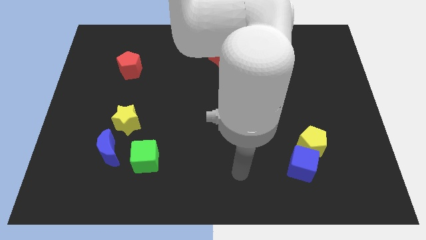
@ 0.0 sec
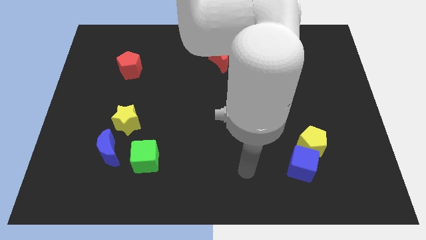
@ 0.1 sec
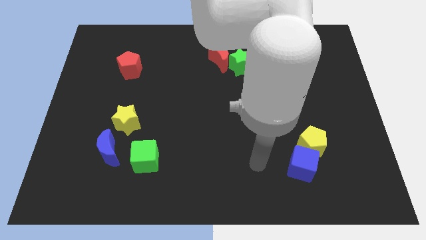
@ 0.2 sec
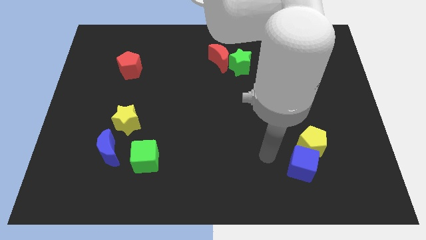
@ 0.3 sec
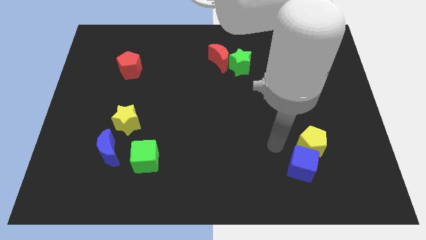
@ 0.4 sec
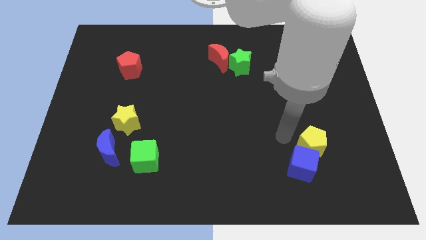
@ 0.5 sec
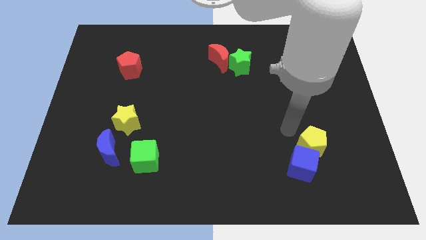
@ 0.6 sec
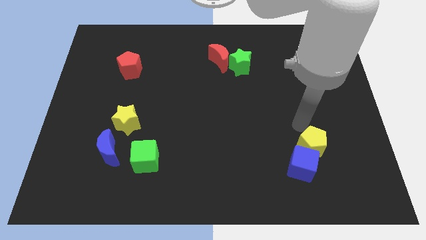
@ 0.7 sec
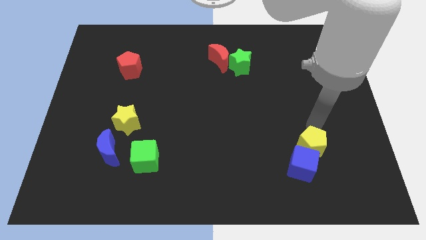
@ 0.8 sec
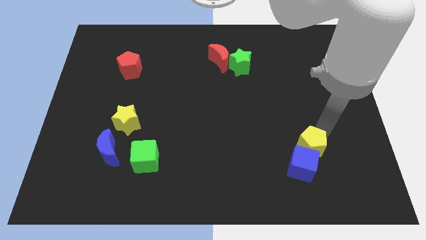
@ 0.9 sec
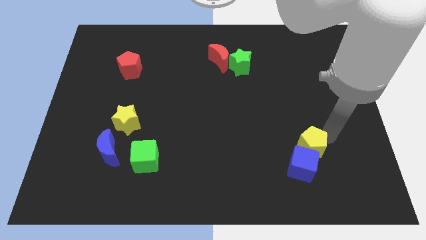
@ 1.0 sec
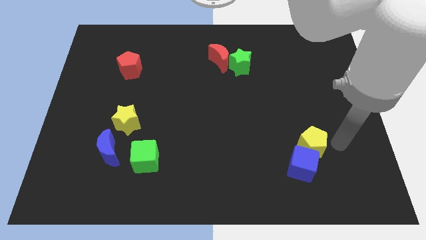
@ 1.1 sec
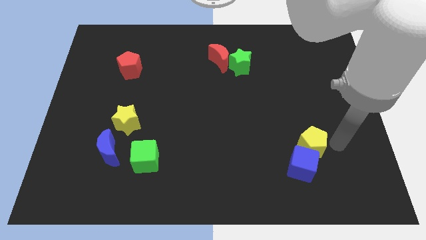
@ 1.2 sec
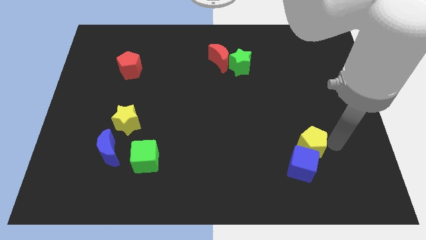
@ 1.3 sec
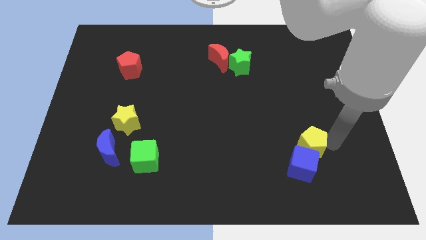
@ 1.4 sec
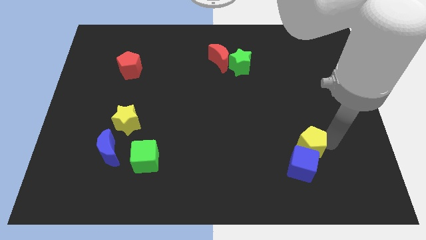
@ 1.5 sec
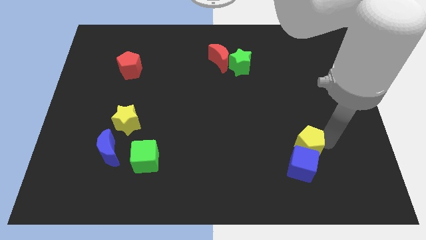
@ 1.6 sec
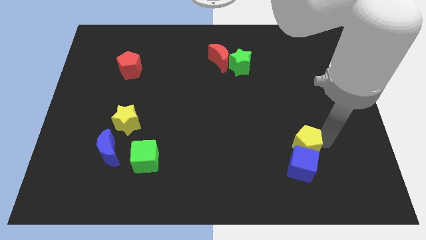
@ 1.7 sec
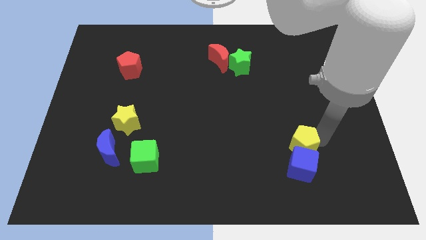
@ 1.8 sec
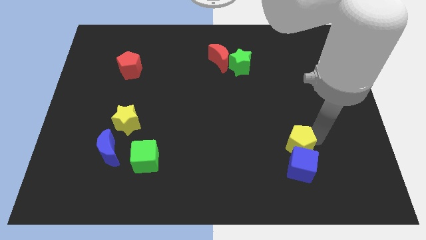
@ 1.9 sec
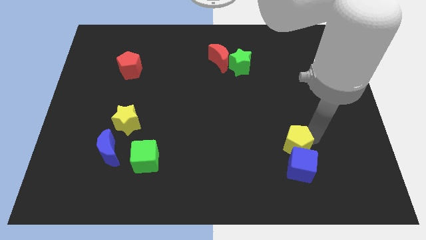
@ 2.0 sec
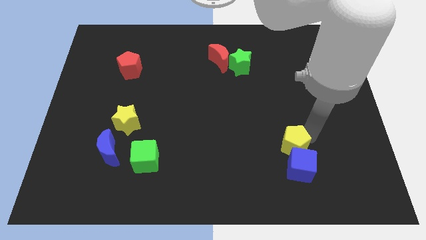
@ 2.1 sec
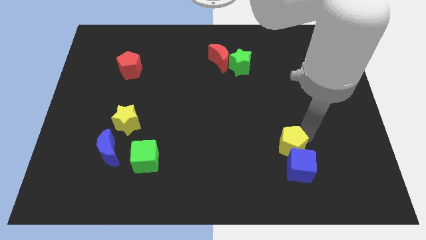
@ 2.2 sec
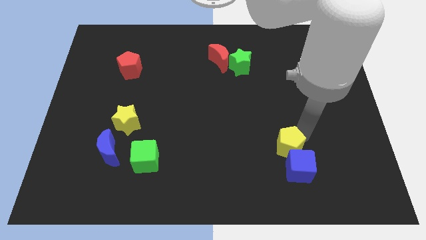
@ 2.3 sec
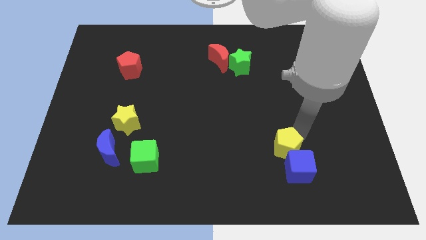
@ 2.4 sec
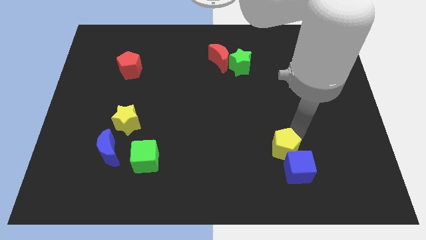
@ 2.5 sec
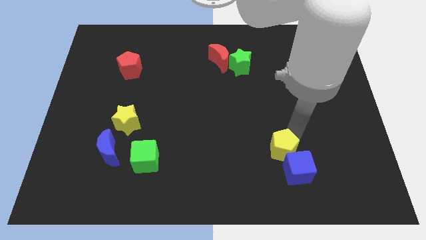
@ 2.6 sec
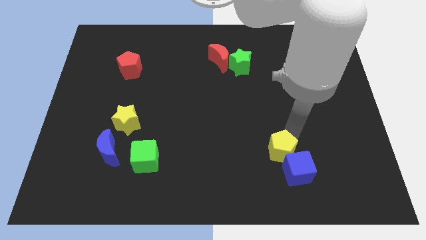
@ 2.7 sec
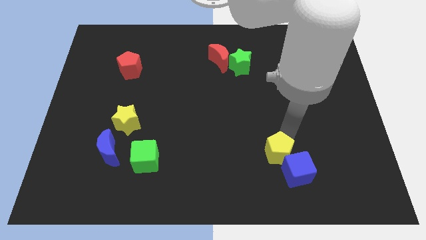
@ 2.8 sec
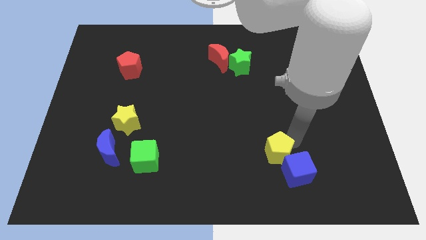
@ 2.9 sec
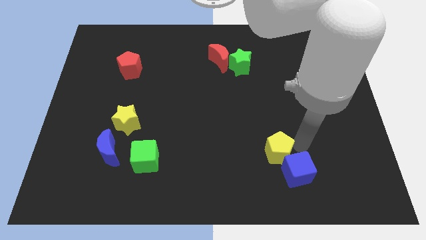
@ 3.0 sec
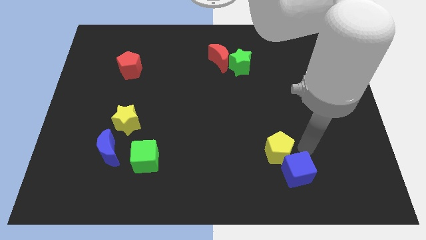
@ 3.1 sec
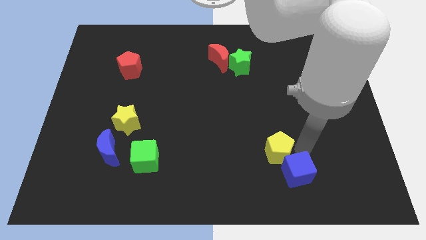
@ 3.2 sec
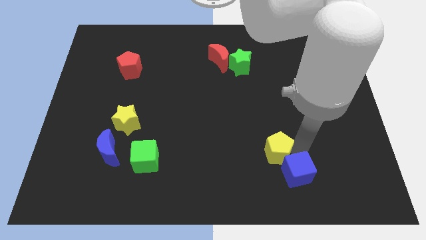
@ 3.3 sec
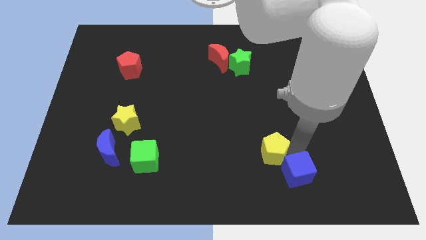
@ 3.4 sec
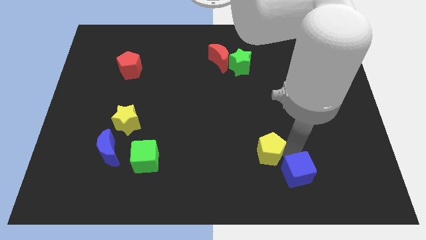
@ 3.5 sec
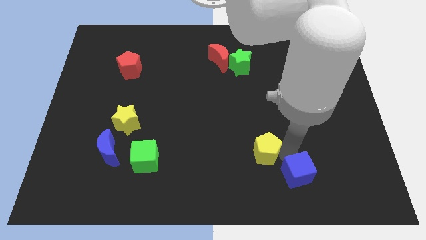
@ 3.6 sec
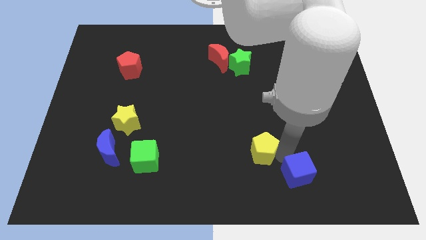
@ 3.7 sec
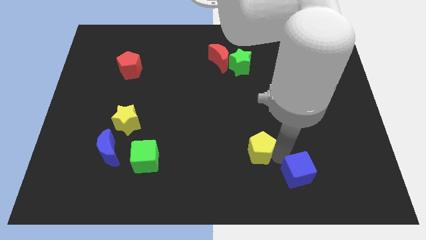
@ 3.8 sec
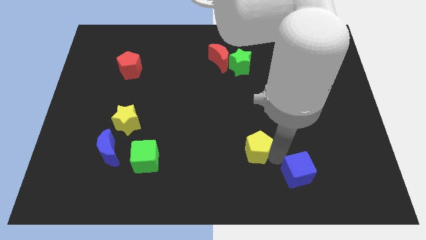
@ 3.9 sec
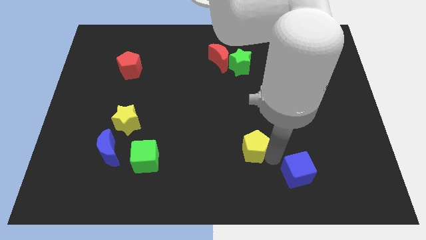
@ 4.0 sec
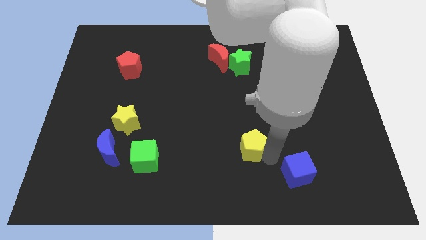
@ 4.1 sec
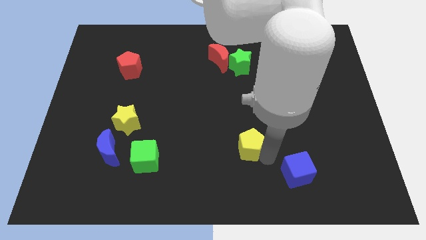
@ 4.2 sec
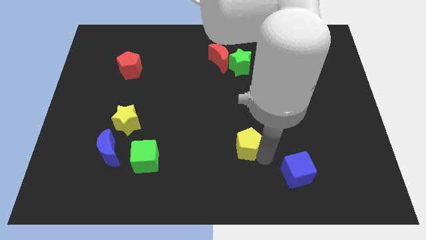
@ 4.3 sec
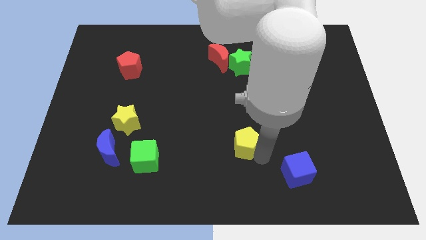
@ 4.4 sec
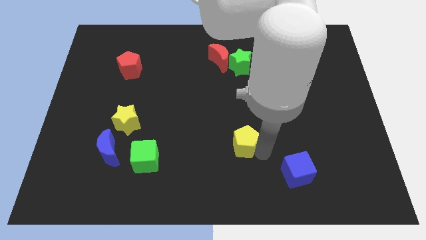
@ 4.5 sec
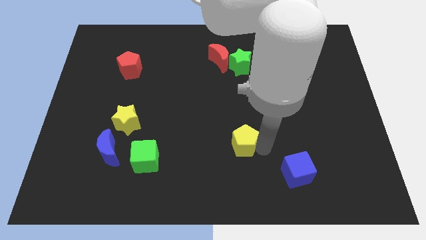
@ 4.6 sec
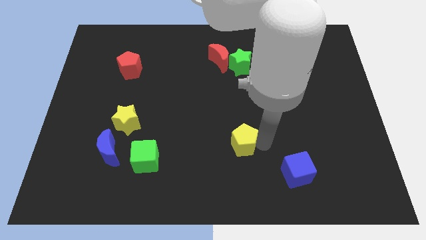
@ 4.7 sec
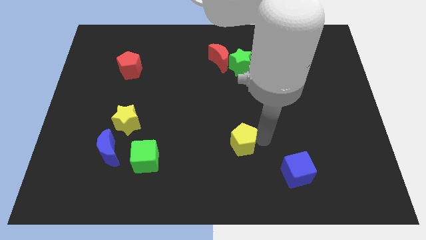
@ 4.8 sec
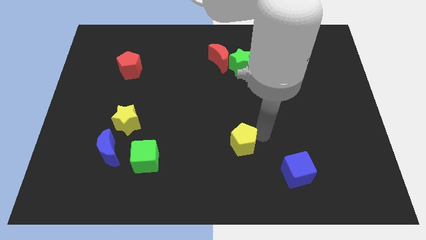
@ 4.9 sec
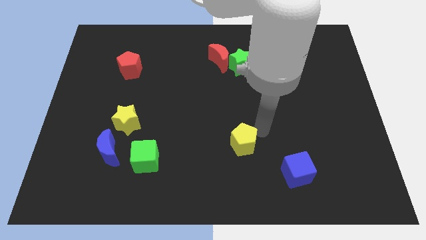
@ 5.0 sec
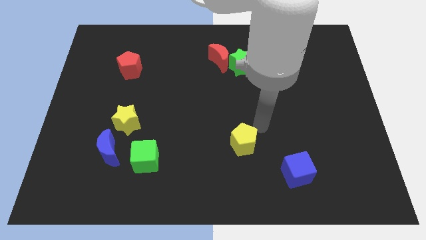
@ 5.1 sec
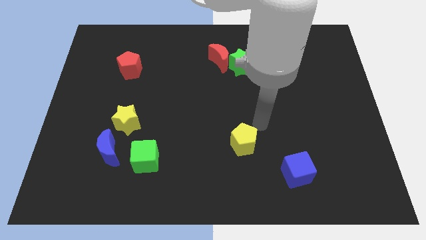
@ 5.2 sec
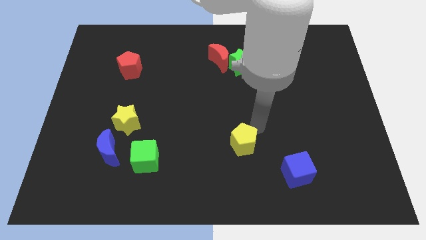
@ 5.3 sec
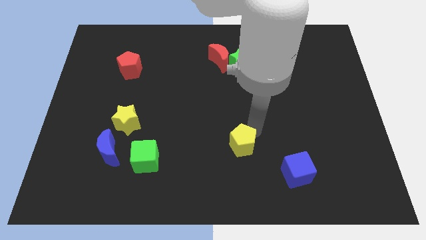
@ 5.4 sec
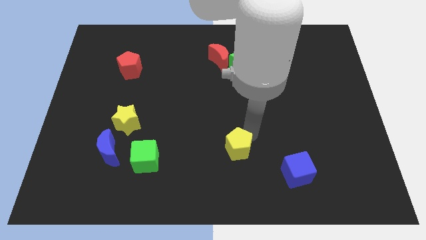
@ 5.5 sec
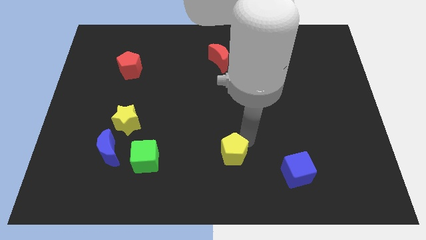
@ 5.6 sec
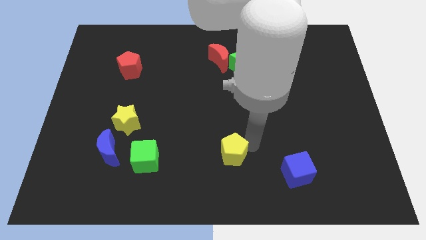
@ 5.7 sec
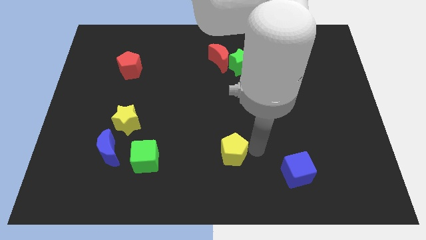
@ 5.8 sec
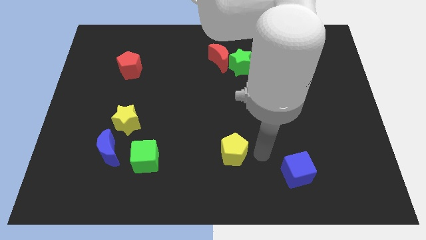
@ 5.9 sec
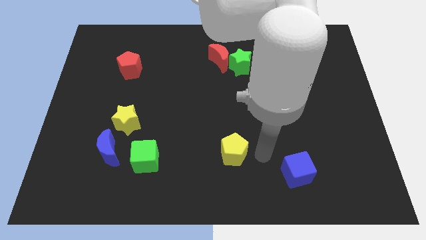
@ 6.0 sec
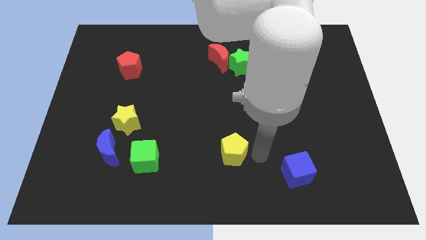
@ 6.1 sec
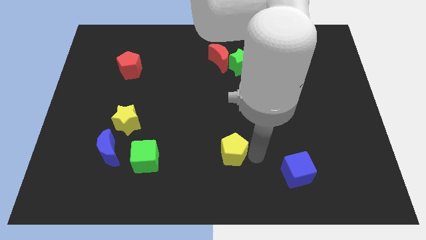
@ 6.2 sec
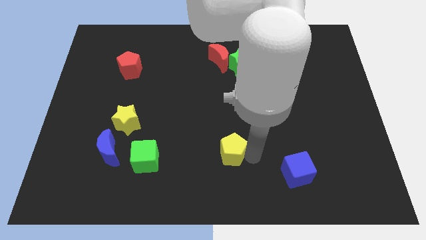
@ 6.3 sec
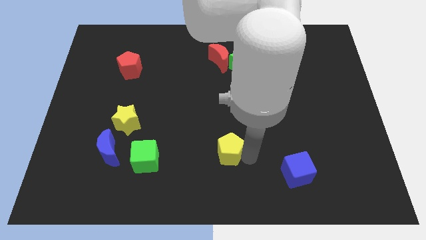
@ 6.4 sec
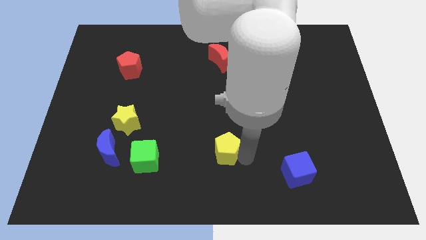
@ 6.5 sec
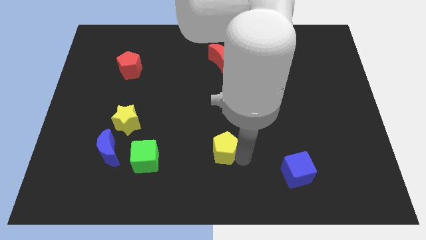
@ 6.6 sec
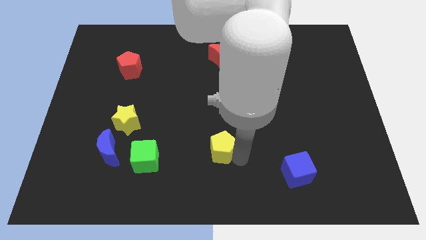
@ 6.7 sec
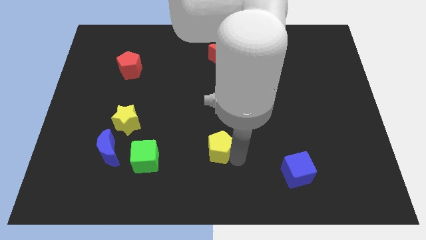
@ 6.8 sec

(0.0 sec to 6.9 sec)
slide the yellow pentagon to the left

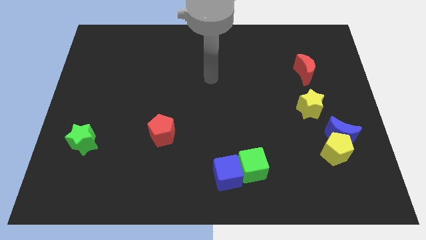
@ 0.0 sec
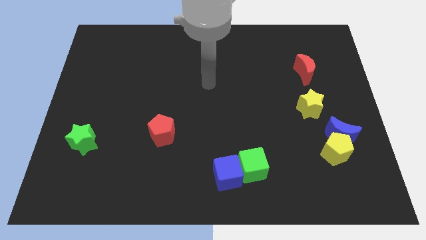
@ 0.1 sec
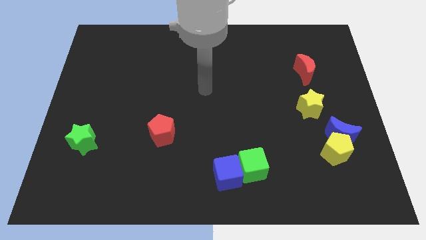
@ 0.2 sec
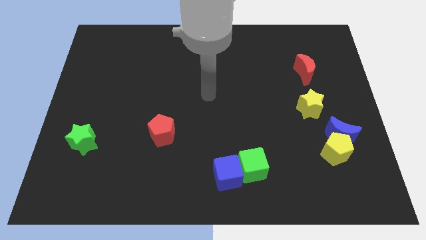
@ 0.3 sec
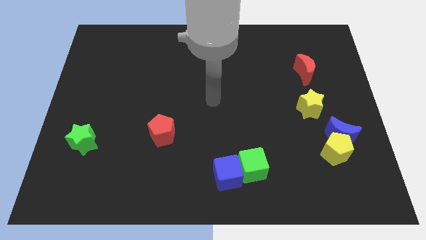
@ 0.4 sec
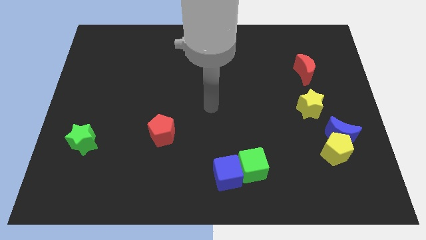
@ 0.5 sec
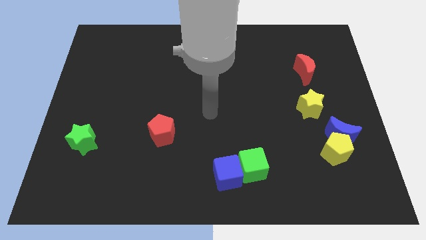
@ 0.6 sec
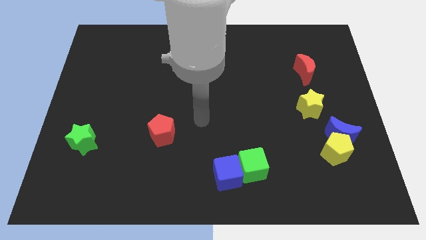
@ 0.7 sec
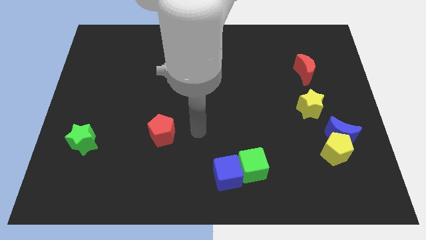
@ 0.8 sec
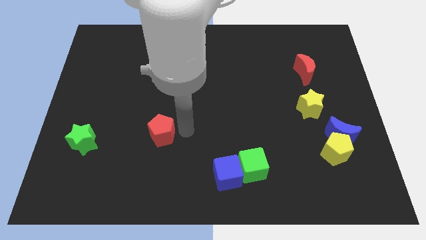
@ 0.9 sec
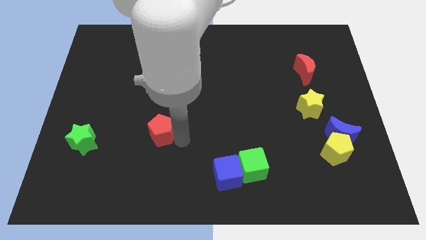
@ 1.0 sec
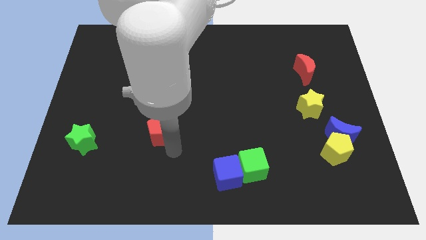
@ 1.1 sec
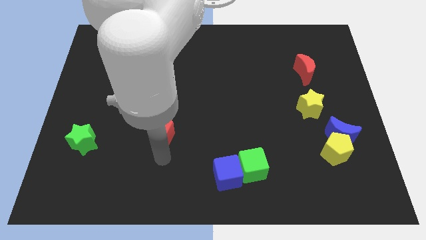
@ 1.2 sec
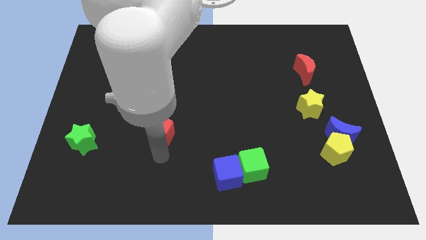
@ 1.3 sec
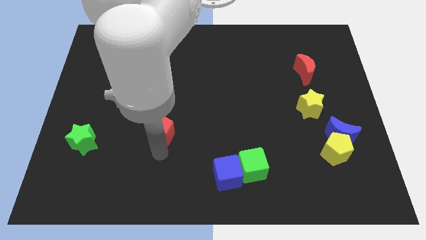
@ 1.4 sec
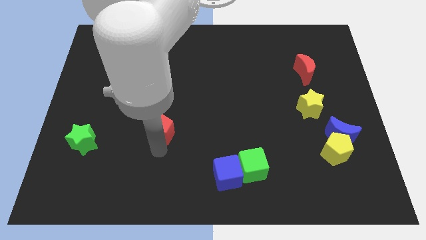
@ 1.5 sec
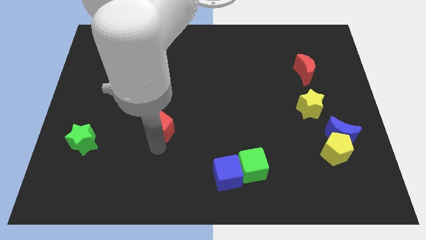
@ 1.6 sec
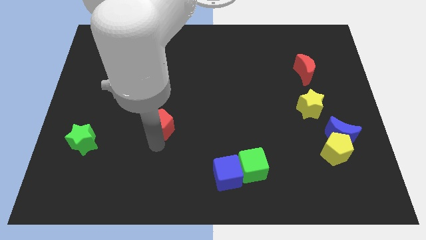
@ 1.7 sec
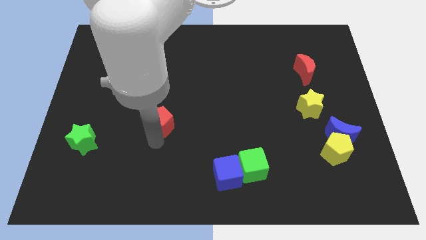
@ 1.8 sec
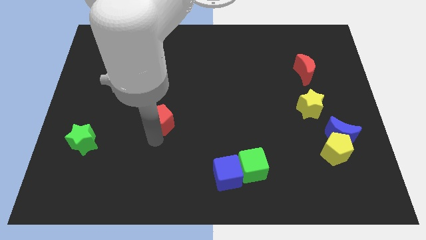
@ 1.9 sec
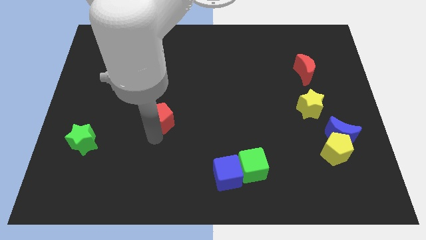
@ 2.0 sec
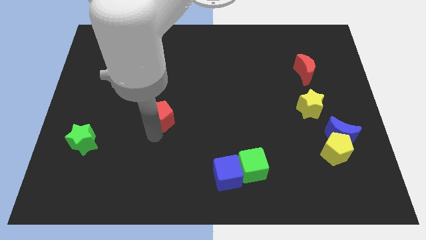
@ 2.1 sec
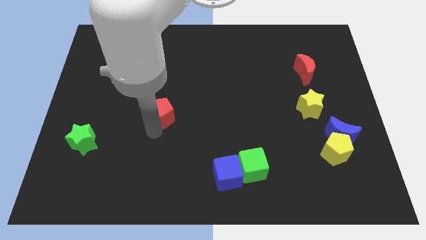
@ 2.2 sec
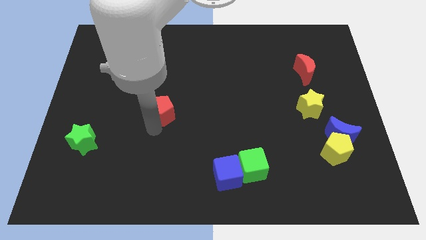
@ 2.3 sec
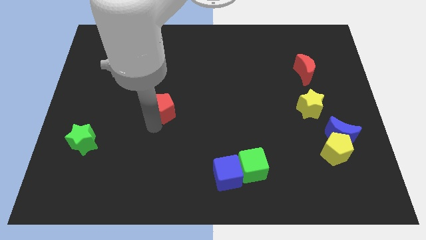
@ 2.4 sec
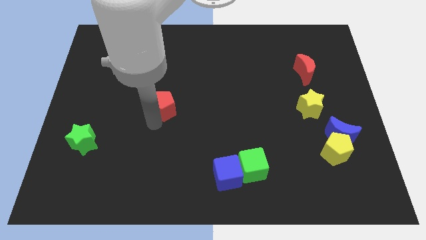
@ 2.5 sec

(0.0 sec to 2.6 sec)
slightly push the red pentagon upwards
